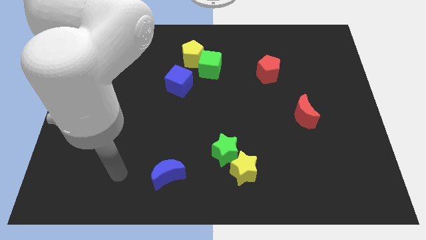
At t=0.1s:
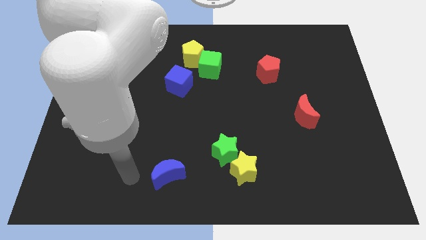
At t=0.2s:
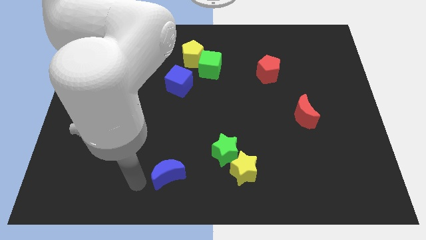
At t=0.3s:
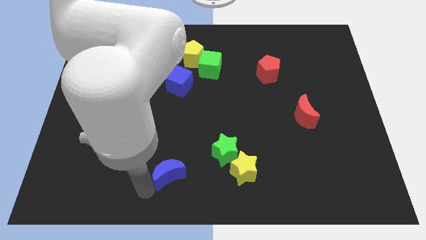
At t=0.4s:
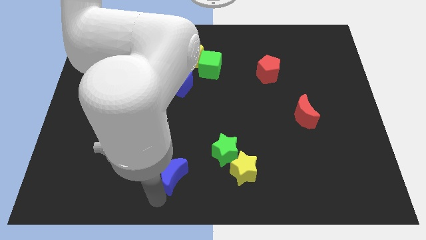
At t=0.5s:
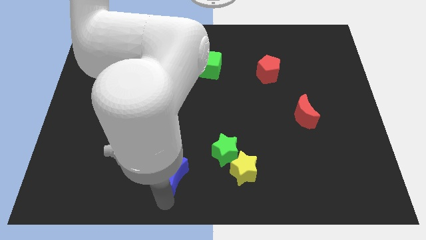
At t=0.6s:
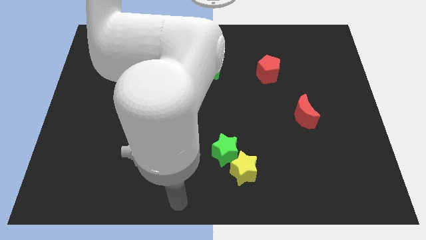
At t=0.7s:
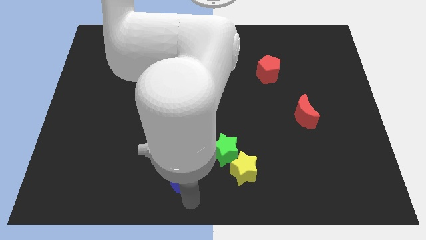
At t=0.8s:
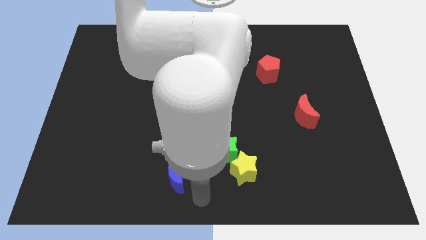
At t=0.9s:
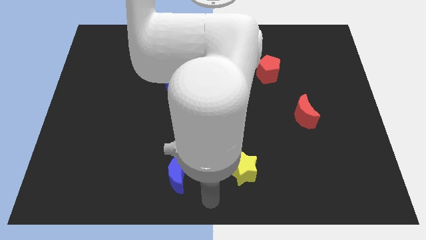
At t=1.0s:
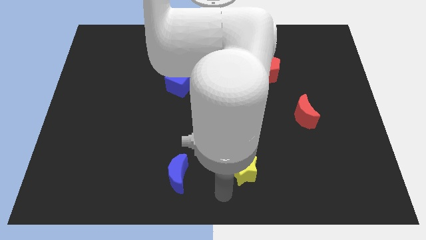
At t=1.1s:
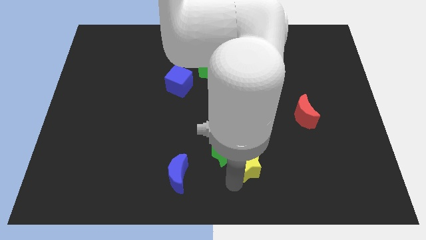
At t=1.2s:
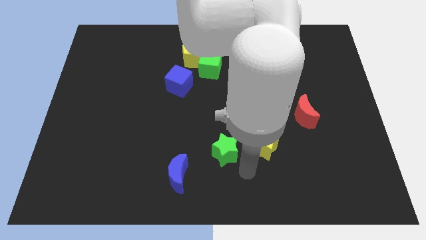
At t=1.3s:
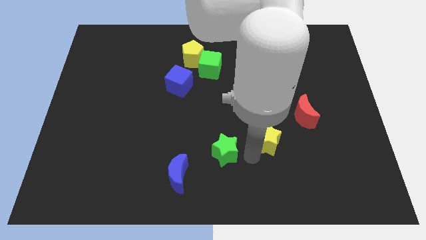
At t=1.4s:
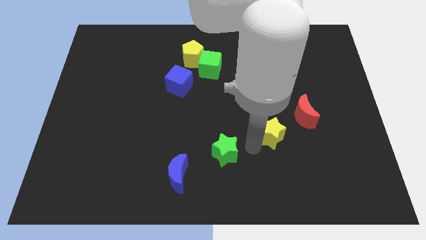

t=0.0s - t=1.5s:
separate the green star from the yellow star

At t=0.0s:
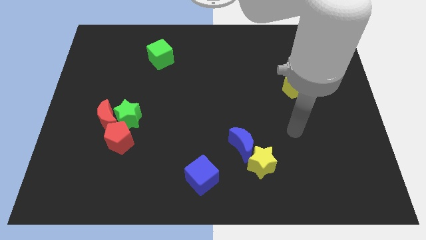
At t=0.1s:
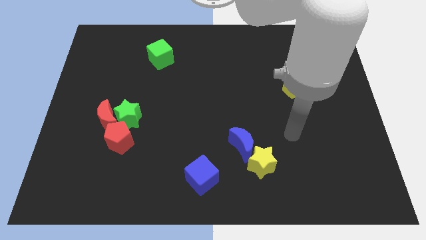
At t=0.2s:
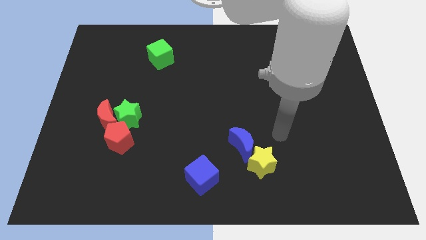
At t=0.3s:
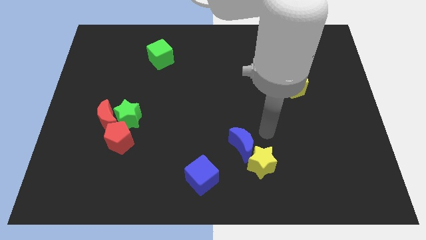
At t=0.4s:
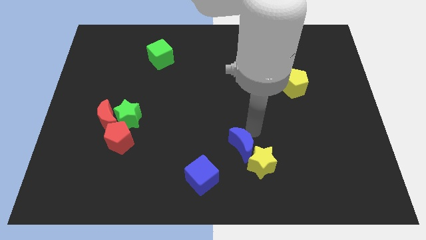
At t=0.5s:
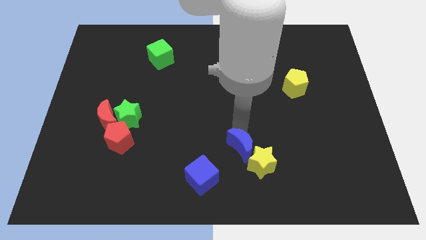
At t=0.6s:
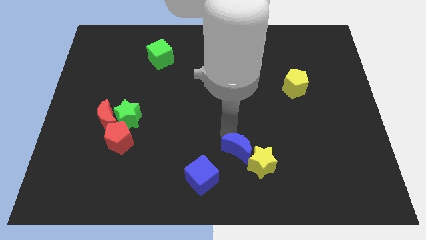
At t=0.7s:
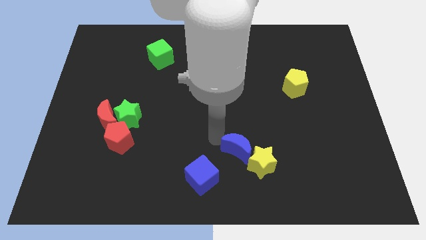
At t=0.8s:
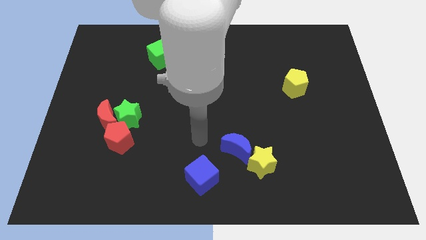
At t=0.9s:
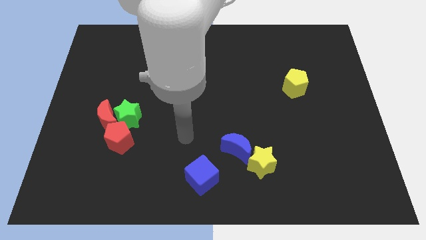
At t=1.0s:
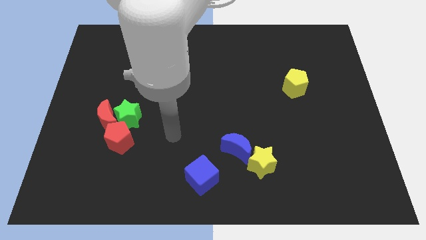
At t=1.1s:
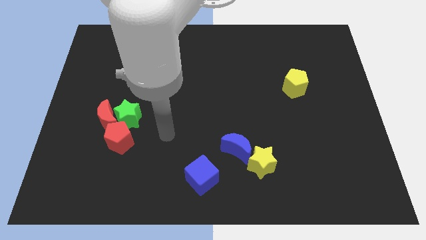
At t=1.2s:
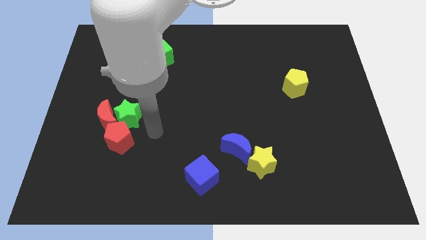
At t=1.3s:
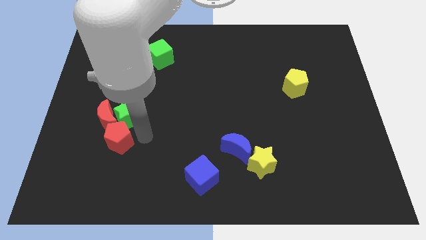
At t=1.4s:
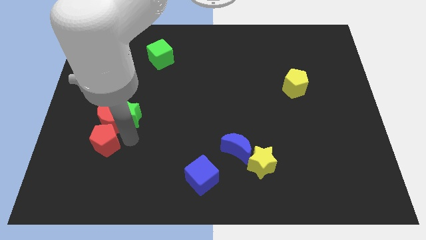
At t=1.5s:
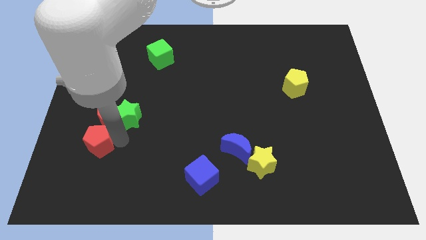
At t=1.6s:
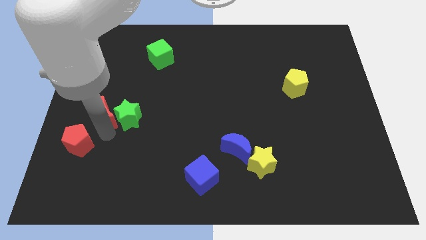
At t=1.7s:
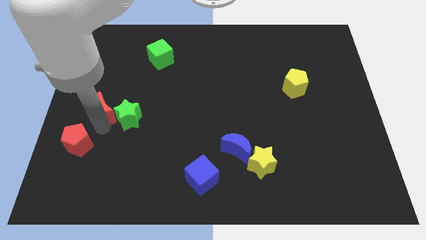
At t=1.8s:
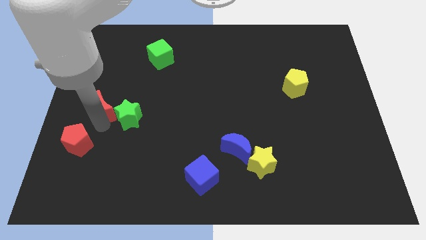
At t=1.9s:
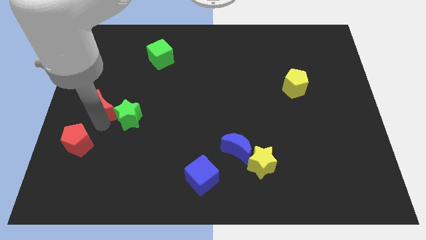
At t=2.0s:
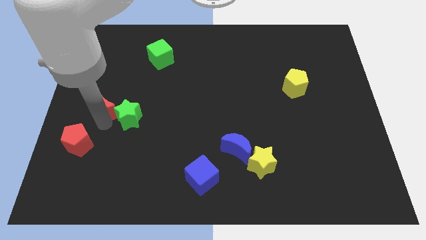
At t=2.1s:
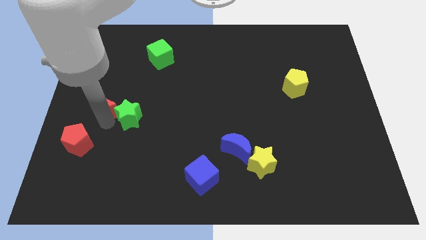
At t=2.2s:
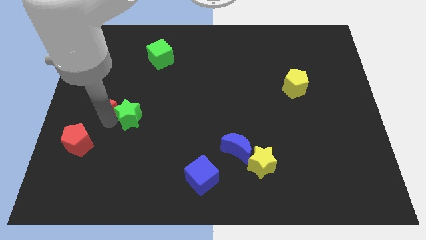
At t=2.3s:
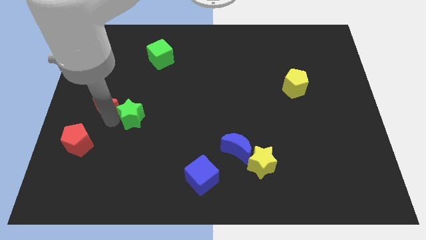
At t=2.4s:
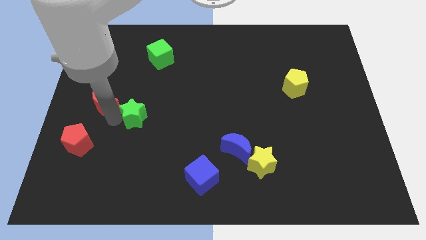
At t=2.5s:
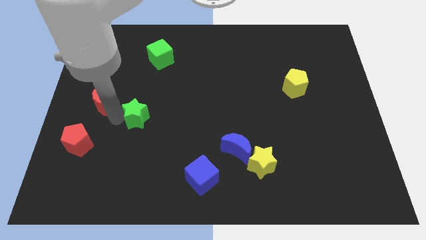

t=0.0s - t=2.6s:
separate the green star from the red moon and red pentagon

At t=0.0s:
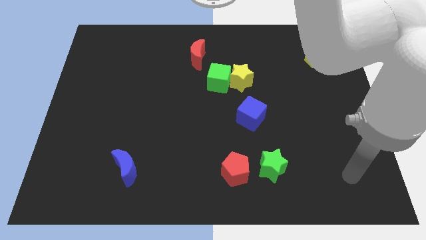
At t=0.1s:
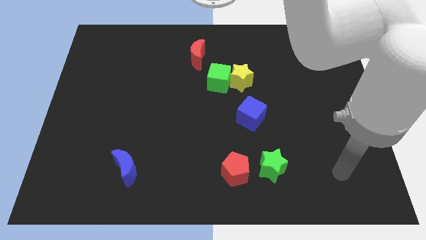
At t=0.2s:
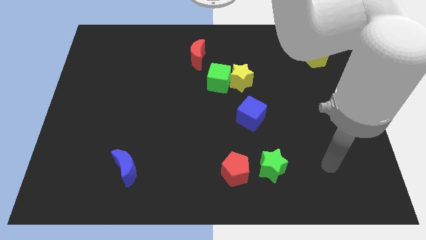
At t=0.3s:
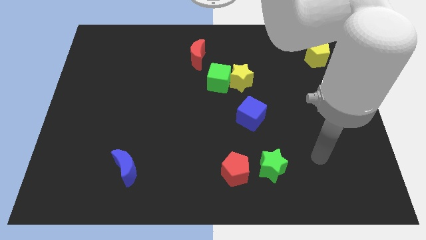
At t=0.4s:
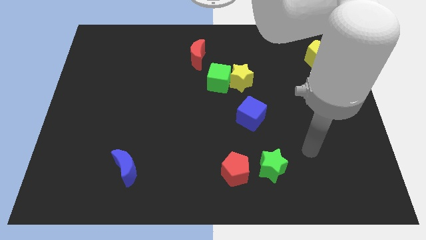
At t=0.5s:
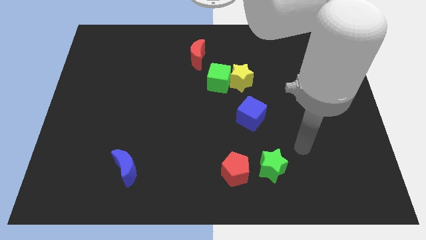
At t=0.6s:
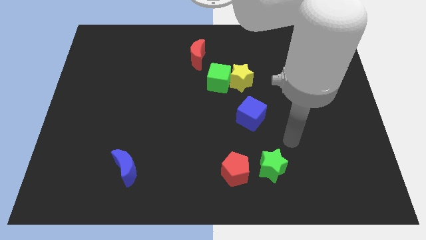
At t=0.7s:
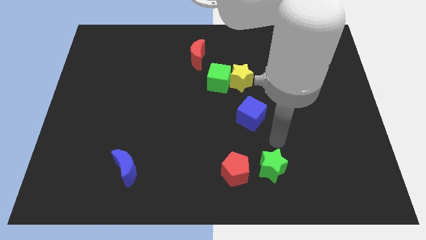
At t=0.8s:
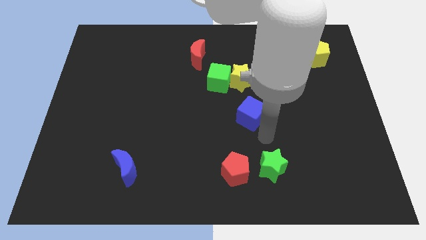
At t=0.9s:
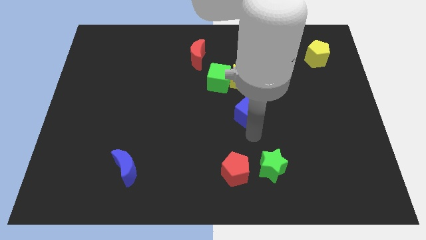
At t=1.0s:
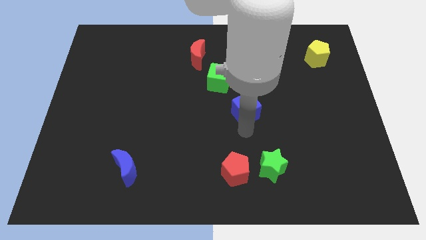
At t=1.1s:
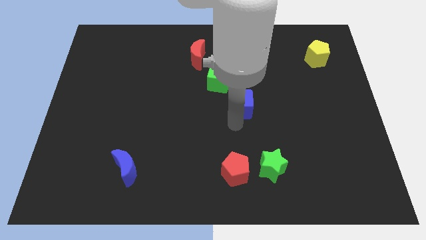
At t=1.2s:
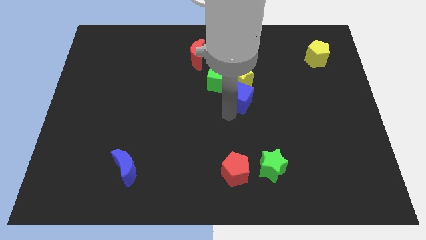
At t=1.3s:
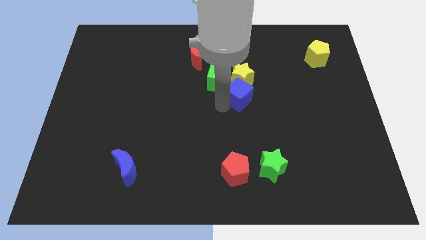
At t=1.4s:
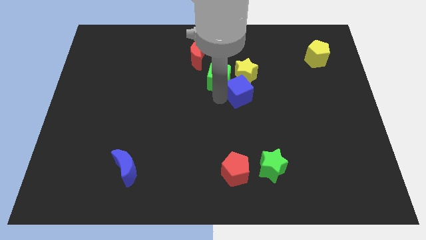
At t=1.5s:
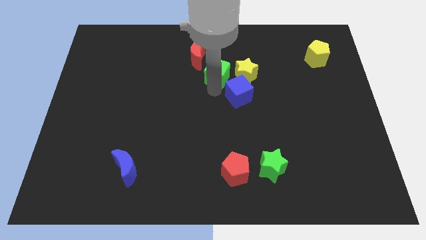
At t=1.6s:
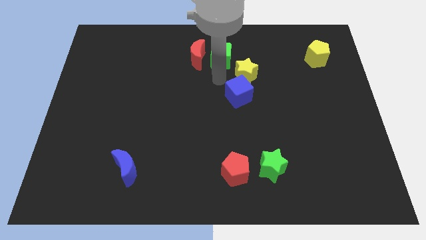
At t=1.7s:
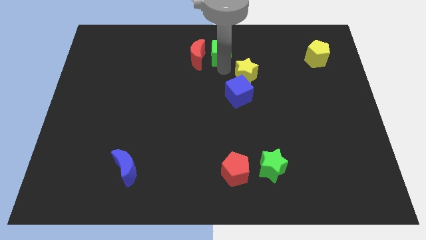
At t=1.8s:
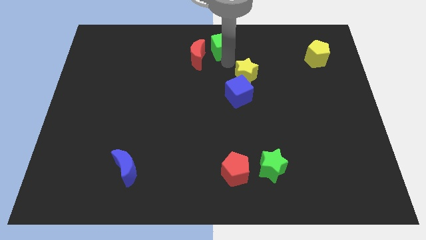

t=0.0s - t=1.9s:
pull the yellow star apart from the green cube

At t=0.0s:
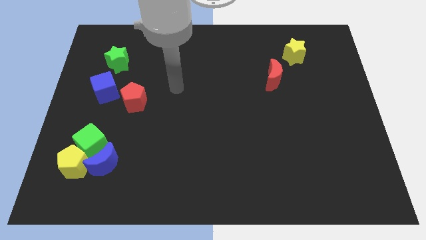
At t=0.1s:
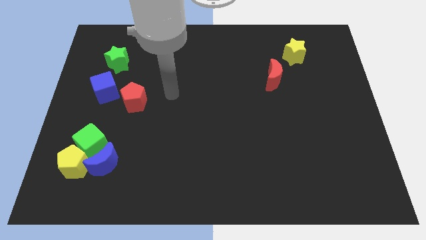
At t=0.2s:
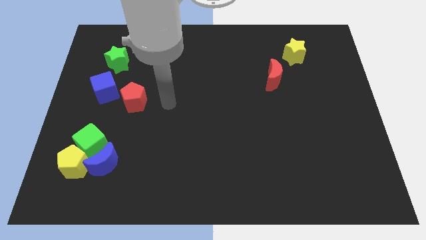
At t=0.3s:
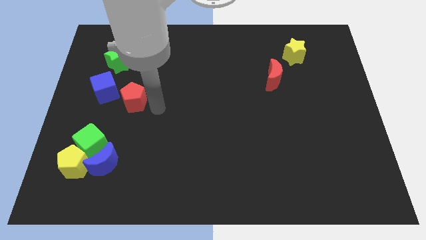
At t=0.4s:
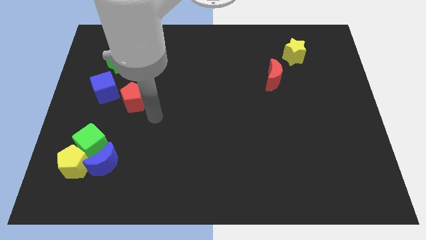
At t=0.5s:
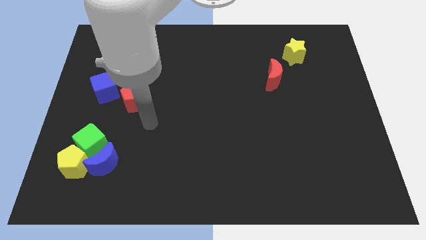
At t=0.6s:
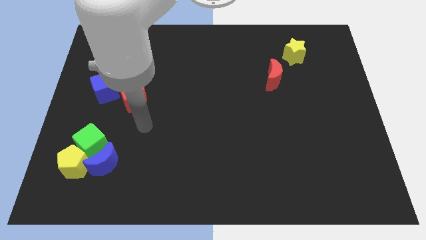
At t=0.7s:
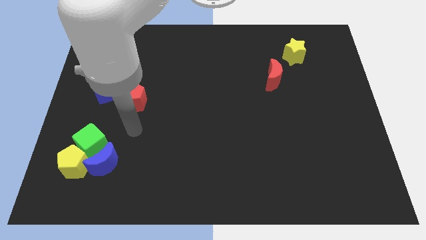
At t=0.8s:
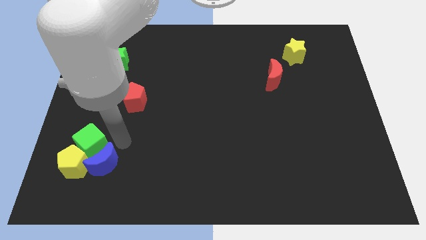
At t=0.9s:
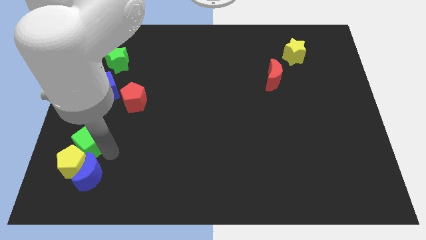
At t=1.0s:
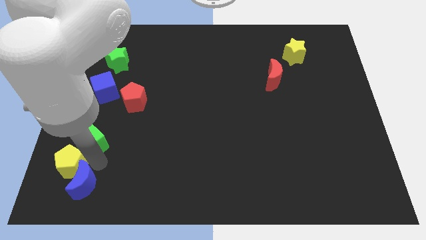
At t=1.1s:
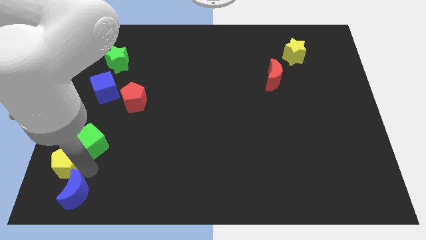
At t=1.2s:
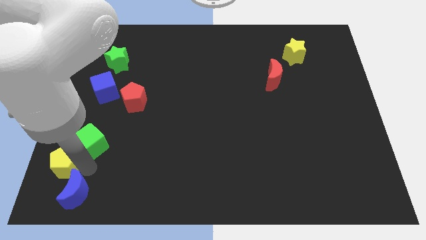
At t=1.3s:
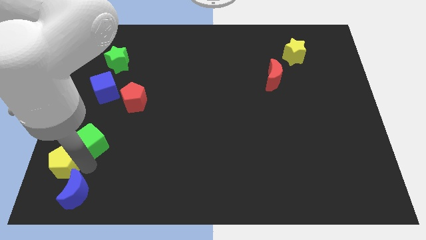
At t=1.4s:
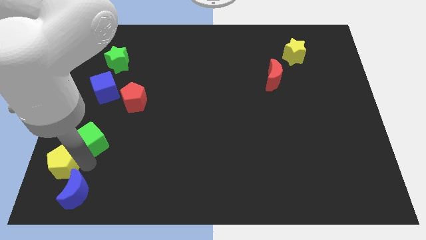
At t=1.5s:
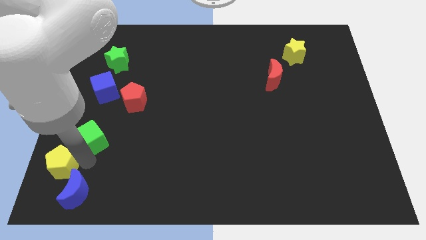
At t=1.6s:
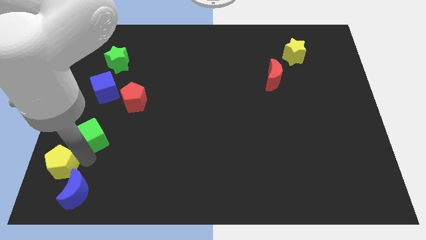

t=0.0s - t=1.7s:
pull the green cube apart from the yellow pentagon and blue moon

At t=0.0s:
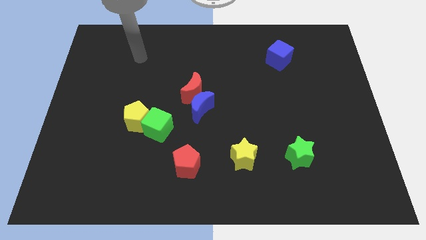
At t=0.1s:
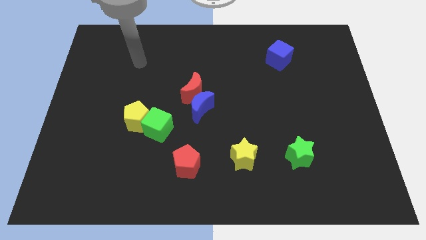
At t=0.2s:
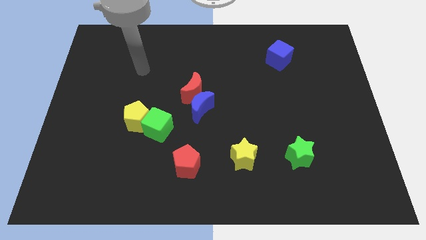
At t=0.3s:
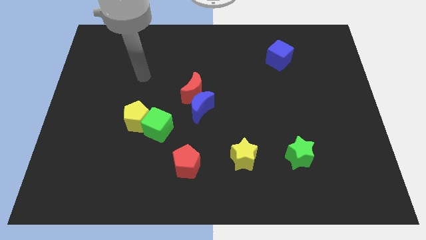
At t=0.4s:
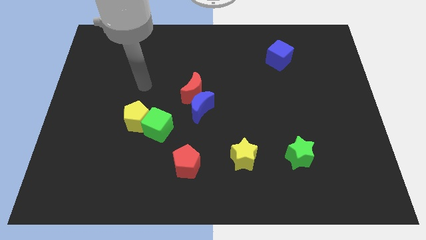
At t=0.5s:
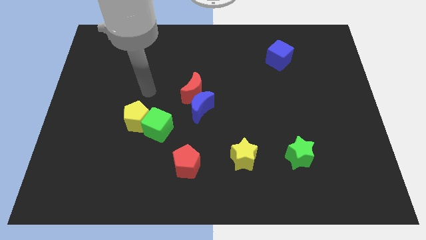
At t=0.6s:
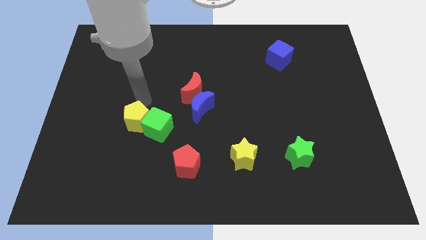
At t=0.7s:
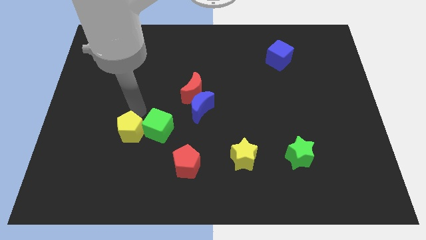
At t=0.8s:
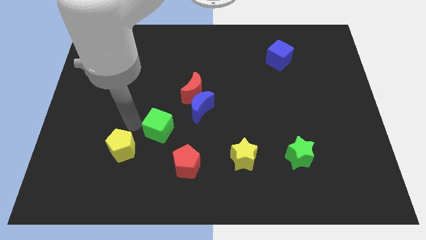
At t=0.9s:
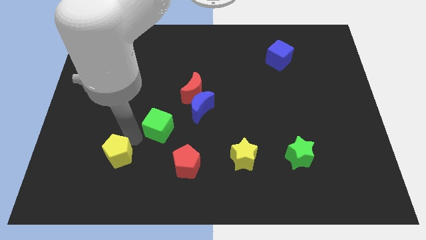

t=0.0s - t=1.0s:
separate the green cube from the yellow pentagon

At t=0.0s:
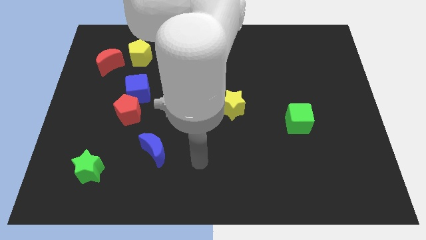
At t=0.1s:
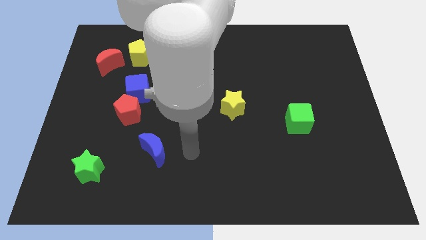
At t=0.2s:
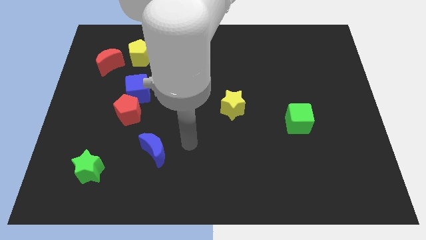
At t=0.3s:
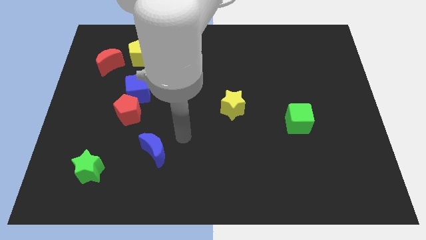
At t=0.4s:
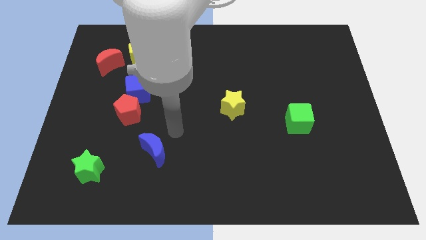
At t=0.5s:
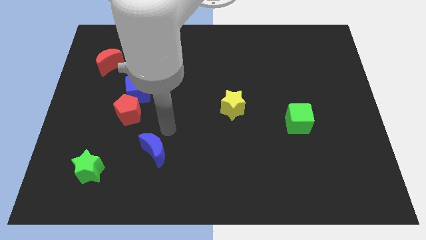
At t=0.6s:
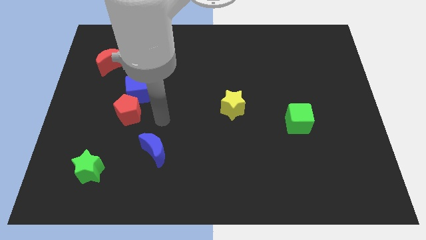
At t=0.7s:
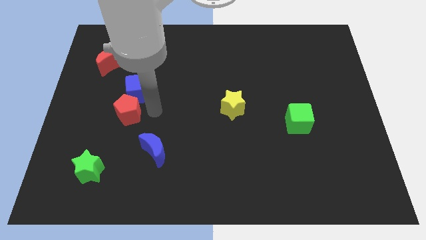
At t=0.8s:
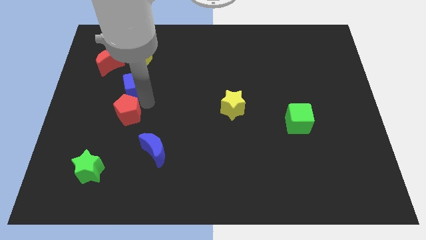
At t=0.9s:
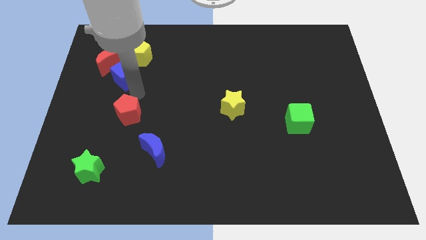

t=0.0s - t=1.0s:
move the red pentagon away from the blue cube
